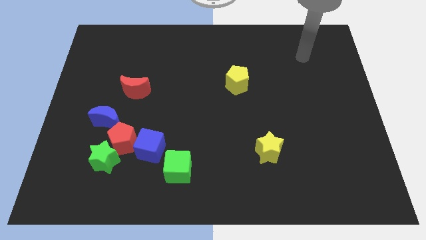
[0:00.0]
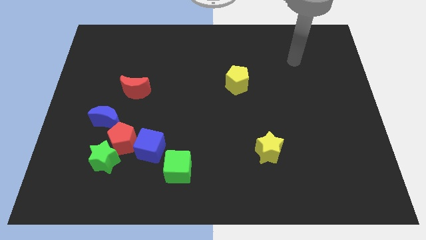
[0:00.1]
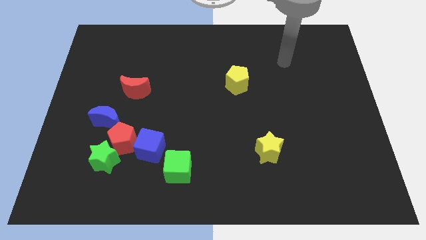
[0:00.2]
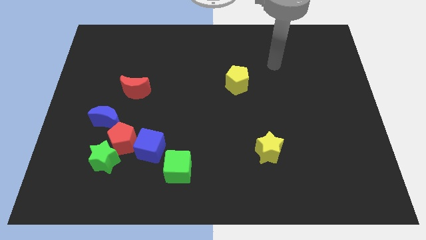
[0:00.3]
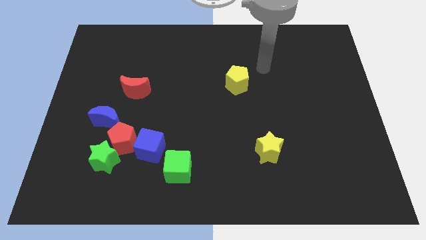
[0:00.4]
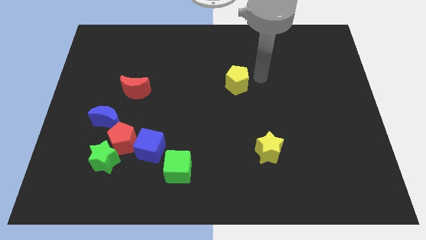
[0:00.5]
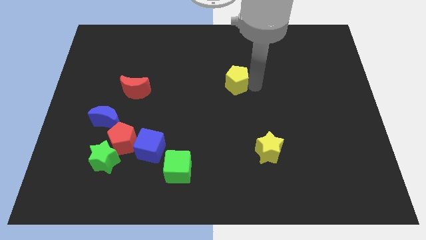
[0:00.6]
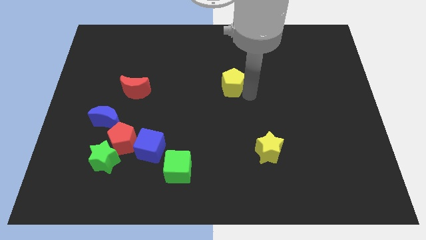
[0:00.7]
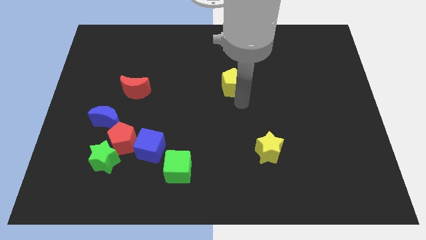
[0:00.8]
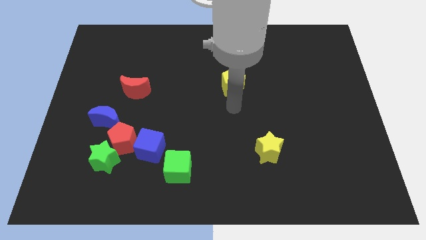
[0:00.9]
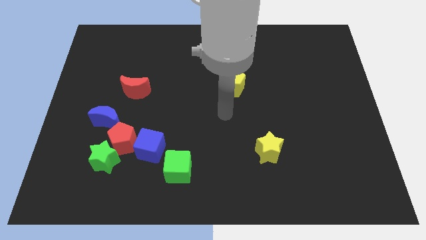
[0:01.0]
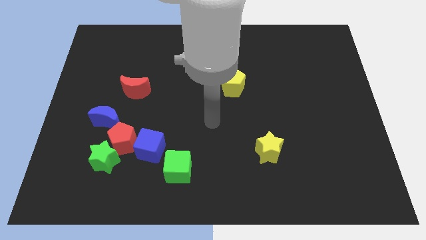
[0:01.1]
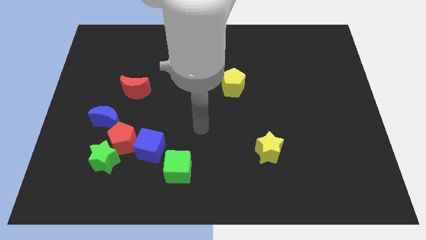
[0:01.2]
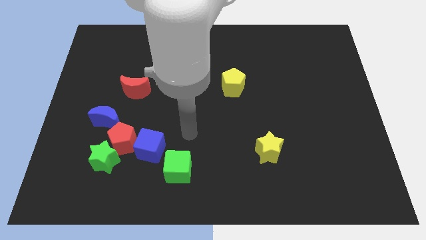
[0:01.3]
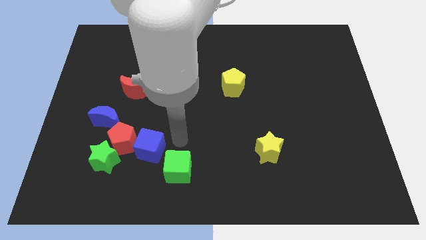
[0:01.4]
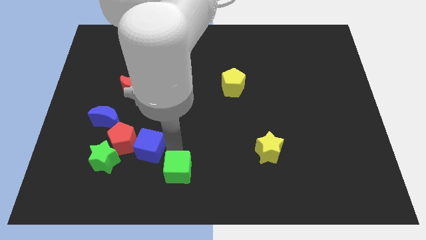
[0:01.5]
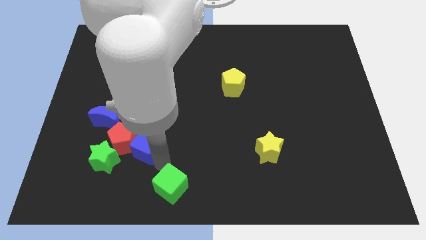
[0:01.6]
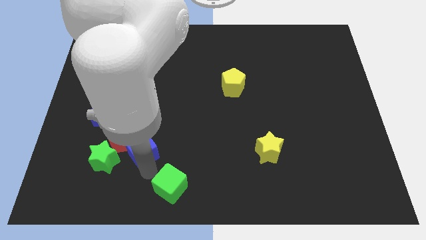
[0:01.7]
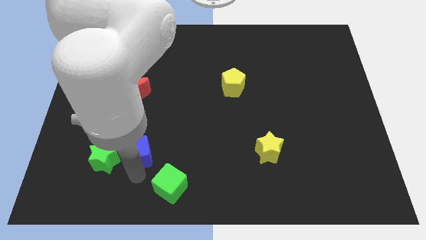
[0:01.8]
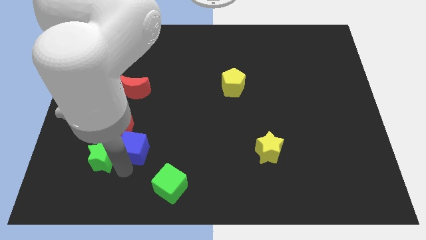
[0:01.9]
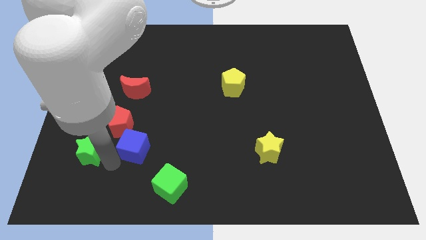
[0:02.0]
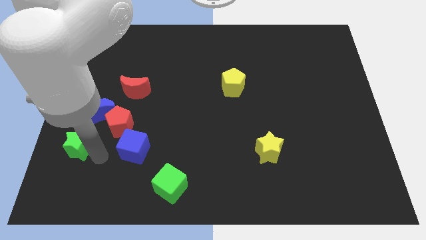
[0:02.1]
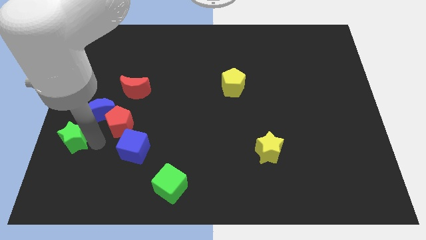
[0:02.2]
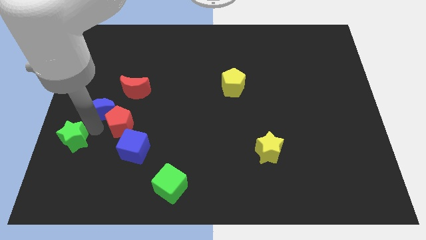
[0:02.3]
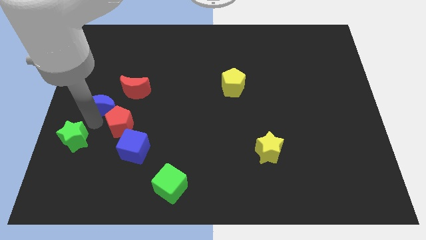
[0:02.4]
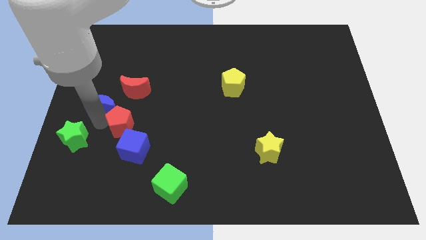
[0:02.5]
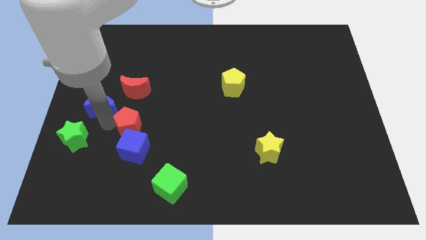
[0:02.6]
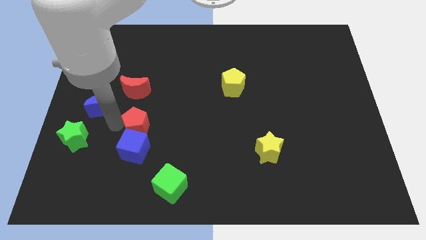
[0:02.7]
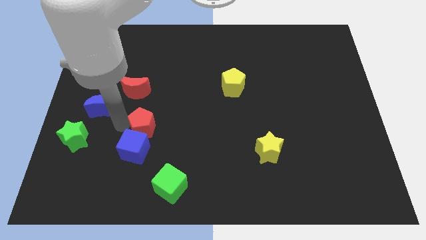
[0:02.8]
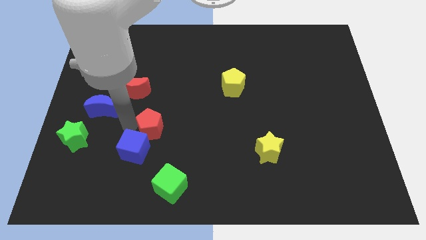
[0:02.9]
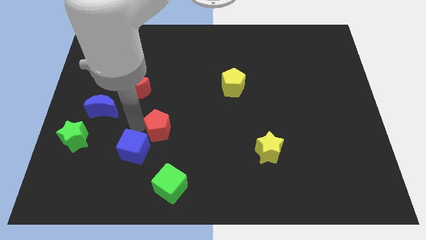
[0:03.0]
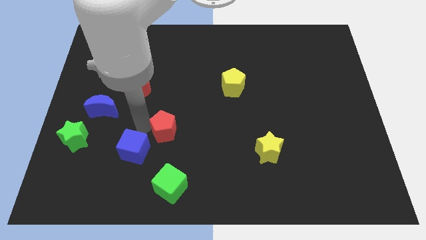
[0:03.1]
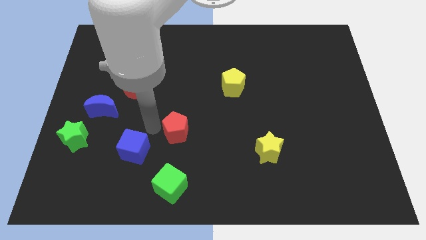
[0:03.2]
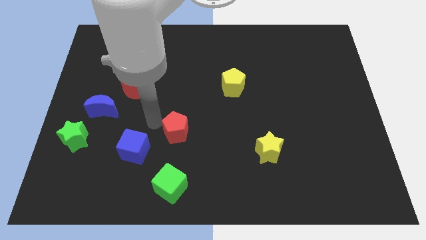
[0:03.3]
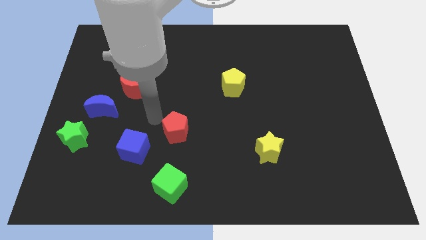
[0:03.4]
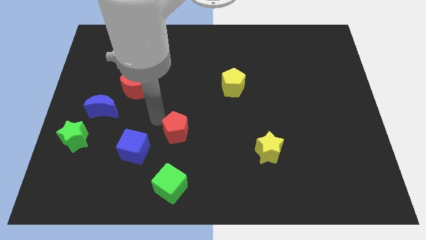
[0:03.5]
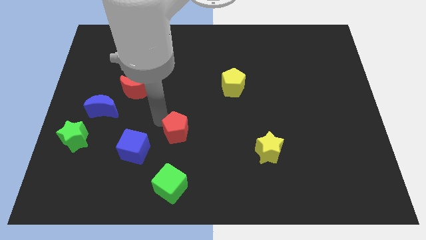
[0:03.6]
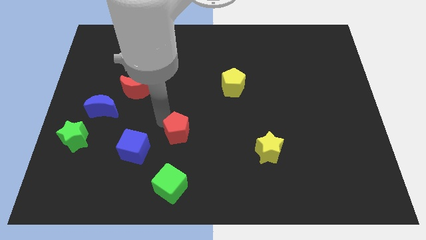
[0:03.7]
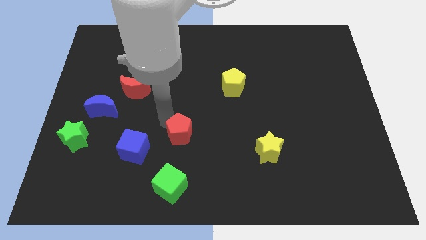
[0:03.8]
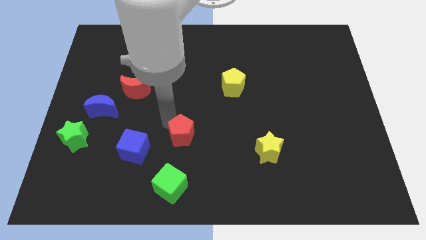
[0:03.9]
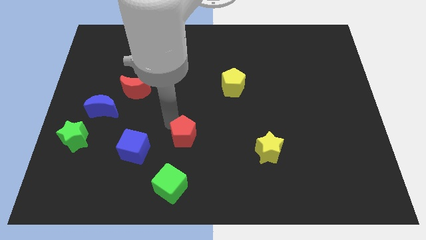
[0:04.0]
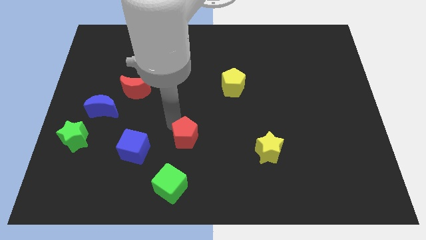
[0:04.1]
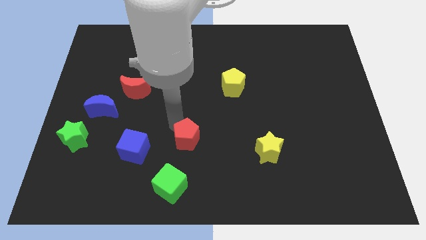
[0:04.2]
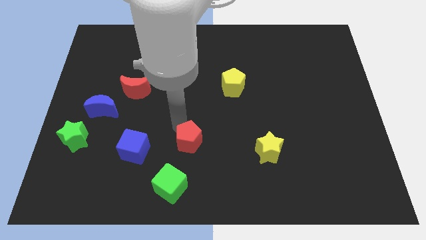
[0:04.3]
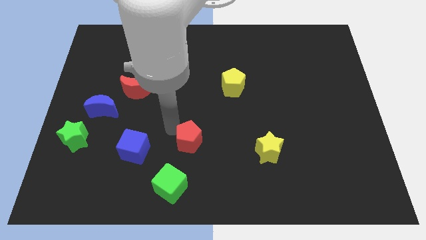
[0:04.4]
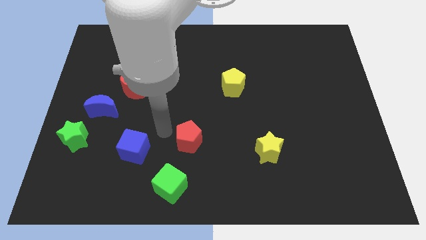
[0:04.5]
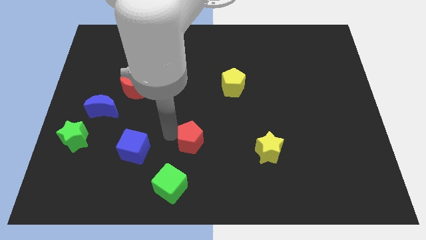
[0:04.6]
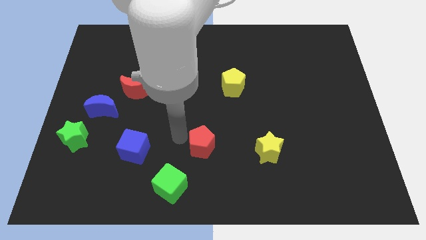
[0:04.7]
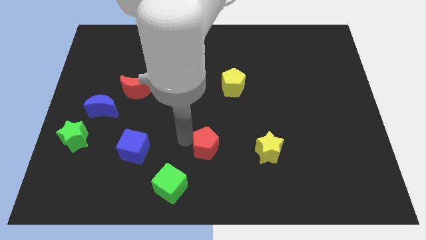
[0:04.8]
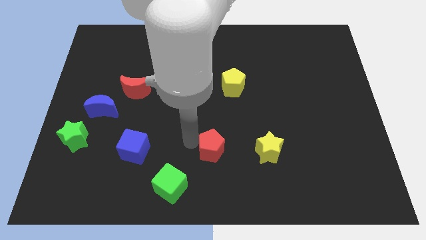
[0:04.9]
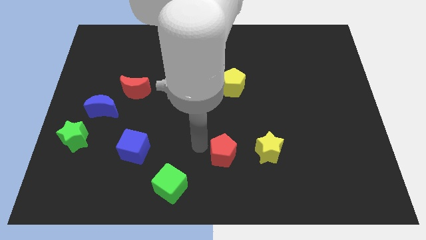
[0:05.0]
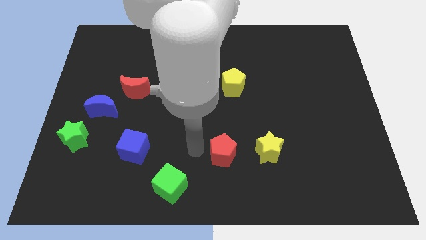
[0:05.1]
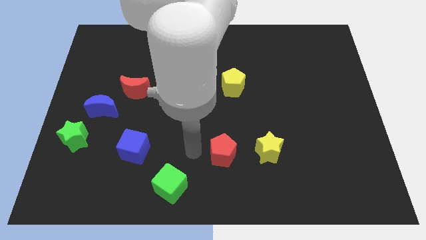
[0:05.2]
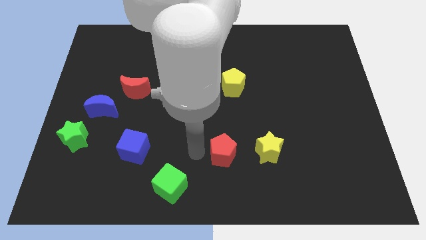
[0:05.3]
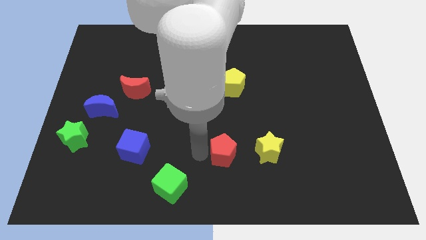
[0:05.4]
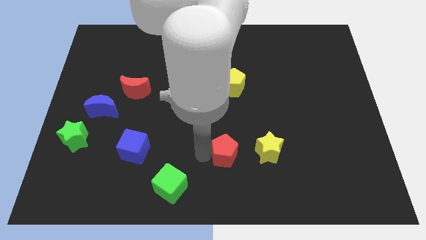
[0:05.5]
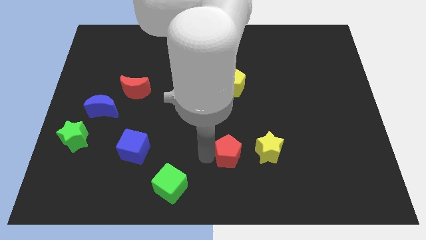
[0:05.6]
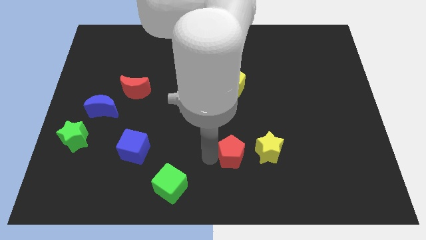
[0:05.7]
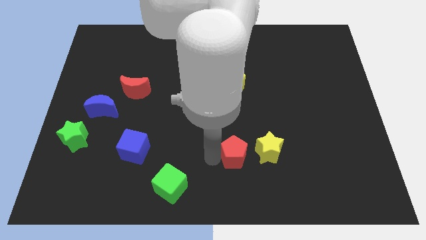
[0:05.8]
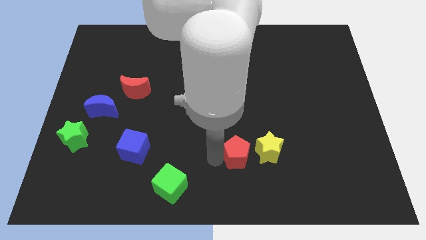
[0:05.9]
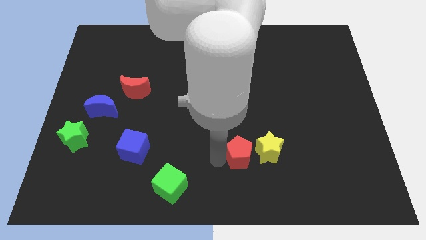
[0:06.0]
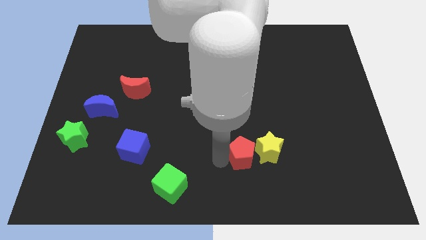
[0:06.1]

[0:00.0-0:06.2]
move the red pentagon next to the yellow star

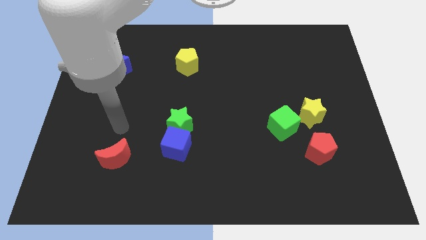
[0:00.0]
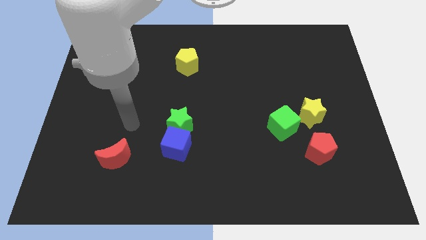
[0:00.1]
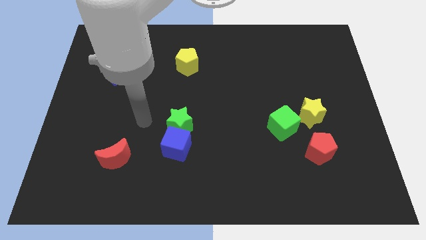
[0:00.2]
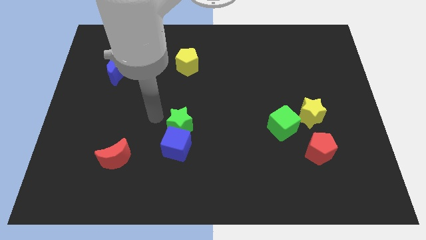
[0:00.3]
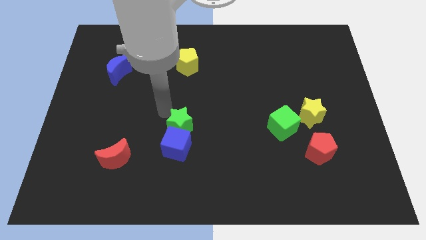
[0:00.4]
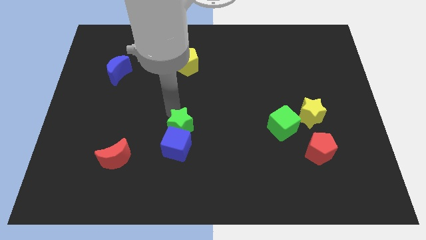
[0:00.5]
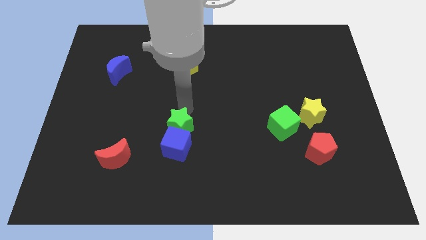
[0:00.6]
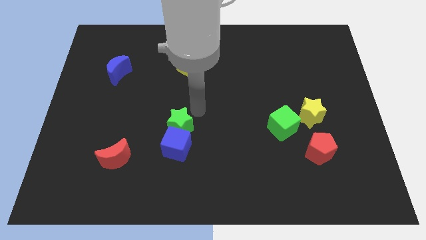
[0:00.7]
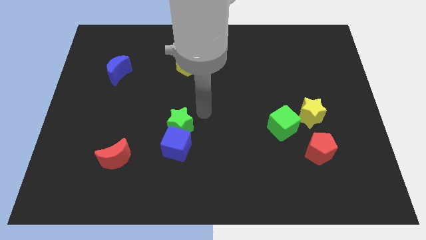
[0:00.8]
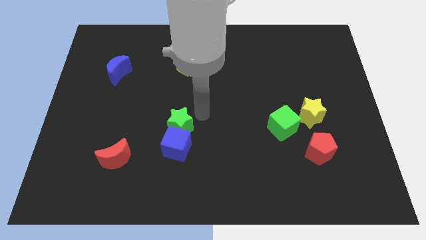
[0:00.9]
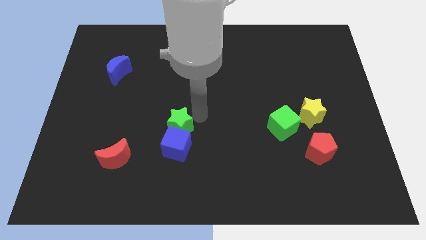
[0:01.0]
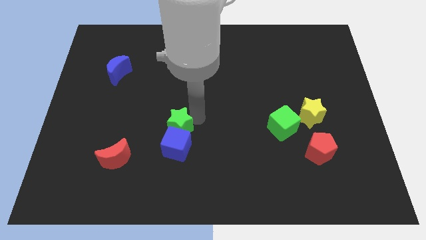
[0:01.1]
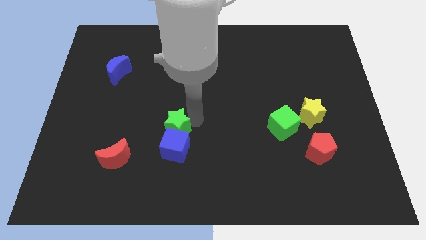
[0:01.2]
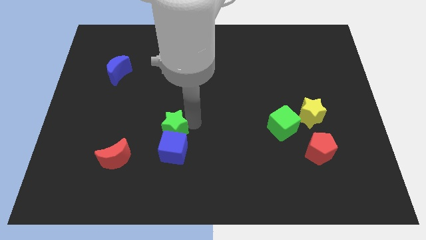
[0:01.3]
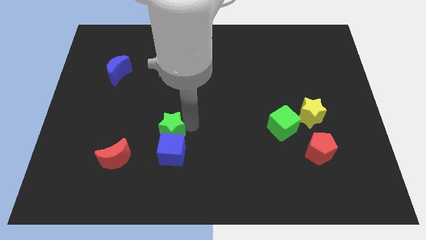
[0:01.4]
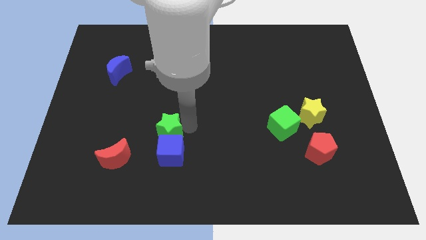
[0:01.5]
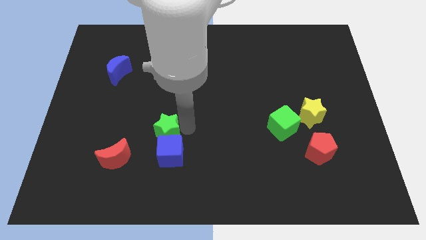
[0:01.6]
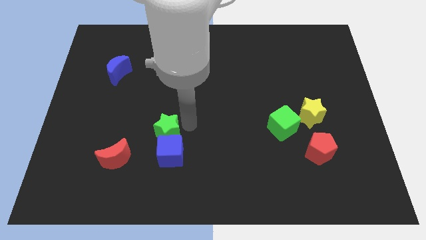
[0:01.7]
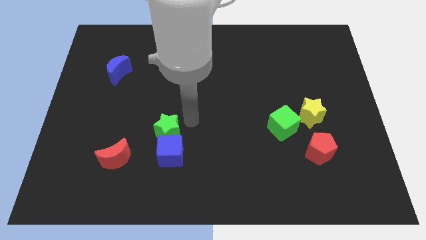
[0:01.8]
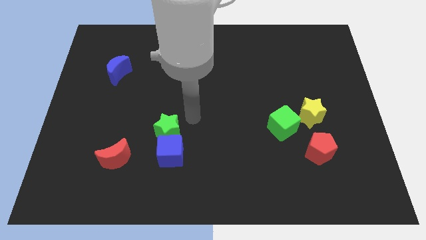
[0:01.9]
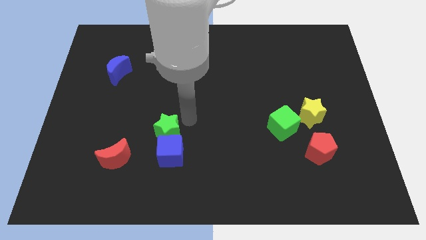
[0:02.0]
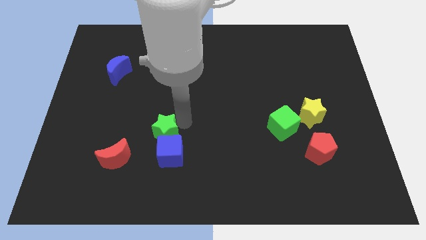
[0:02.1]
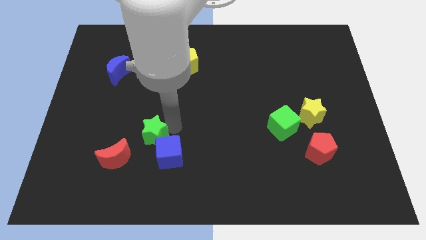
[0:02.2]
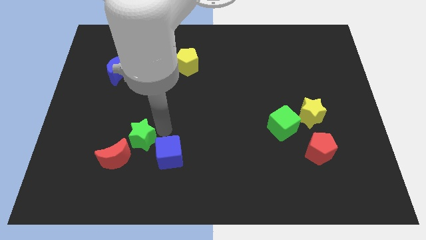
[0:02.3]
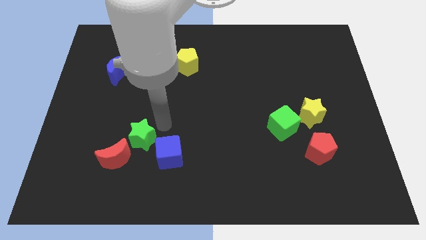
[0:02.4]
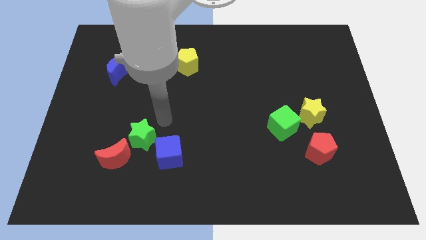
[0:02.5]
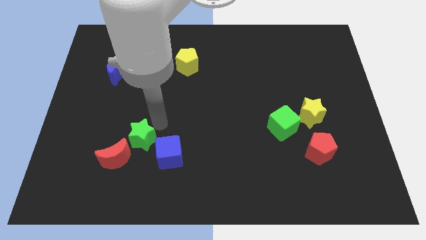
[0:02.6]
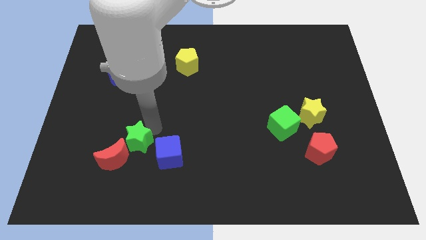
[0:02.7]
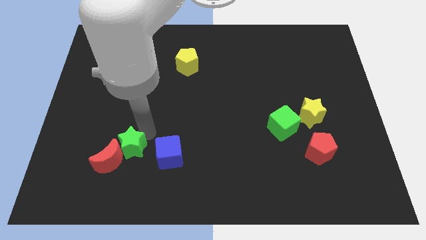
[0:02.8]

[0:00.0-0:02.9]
put the green star to the red moon
